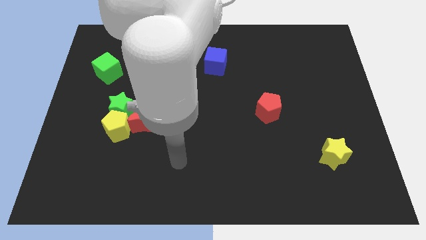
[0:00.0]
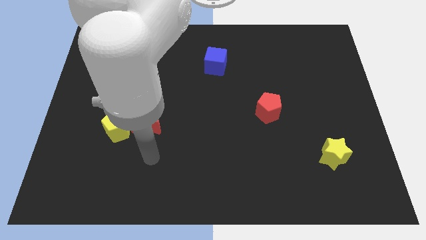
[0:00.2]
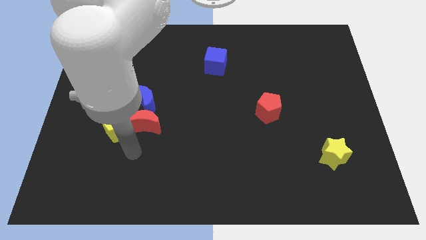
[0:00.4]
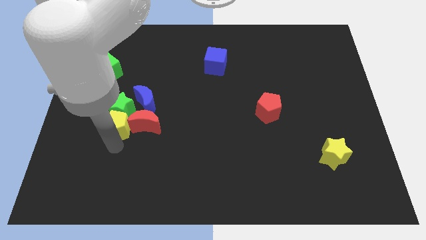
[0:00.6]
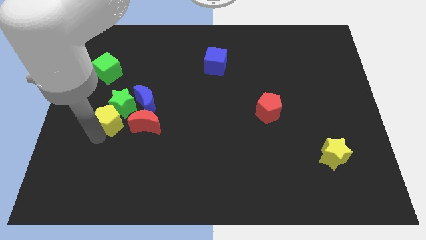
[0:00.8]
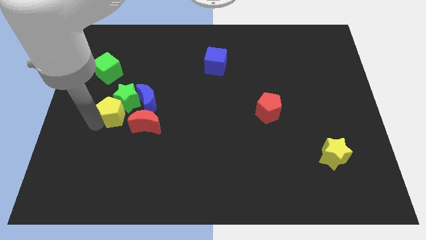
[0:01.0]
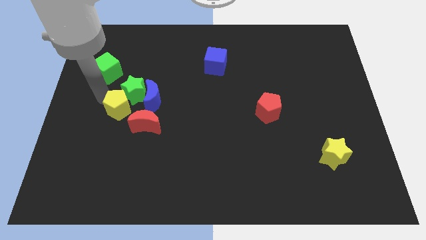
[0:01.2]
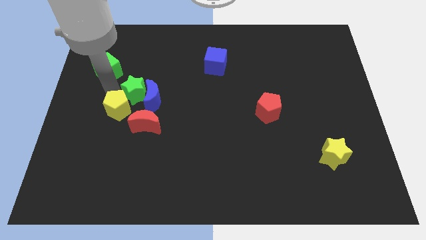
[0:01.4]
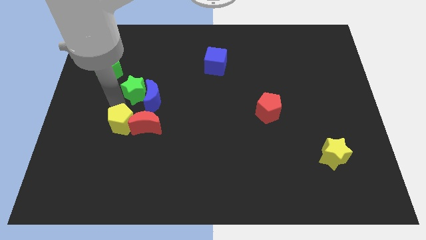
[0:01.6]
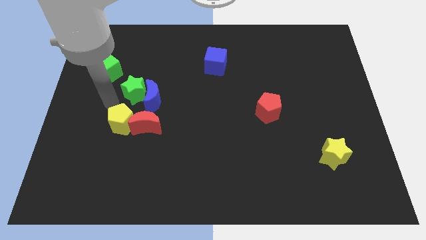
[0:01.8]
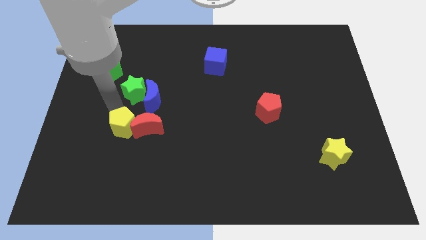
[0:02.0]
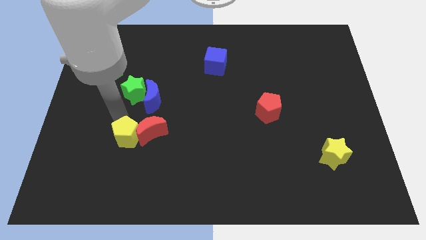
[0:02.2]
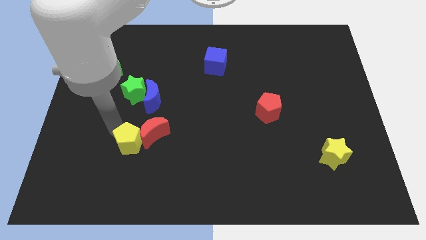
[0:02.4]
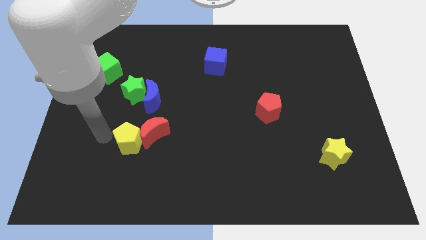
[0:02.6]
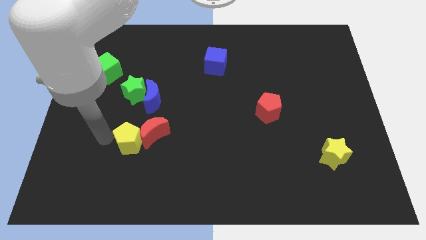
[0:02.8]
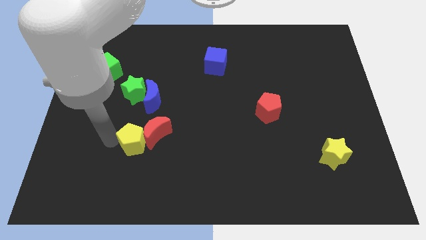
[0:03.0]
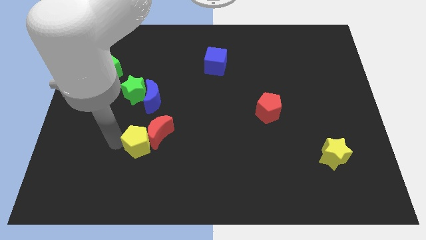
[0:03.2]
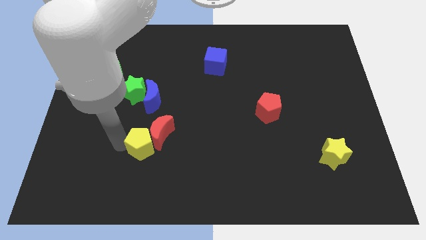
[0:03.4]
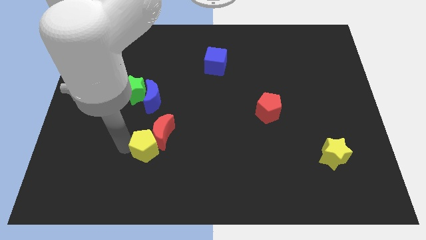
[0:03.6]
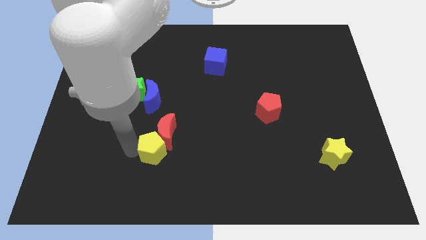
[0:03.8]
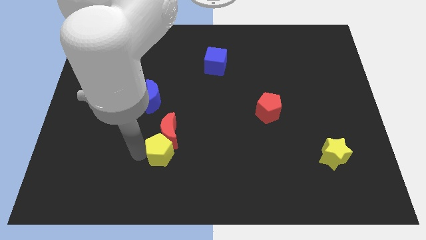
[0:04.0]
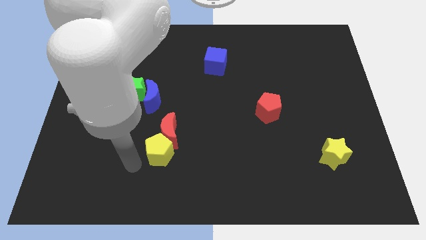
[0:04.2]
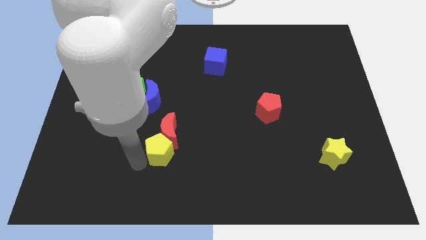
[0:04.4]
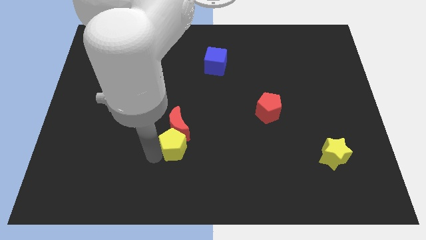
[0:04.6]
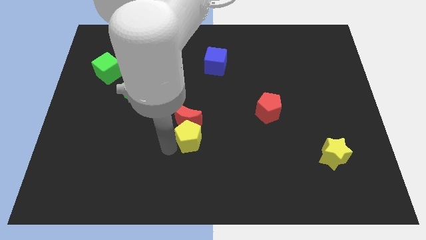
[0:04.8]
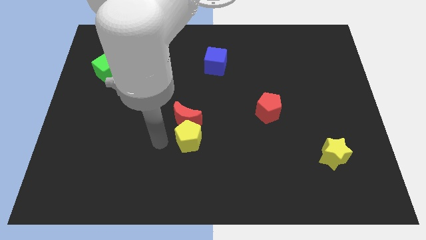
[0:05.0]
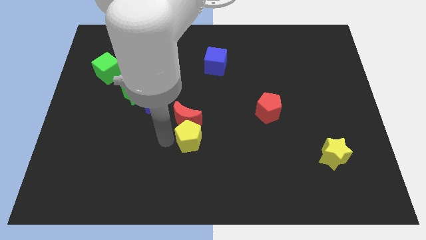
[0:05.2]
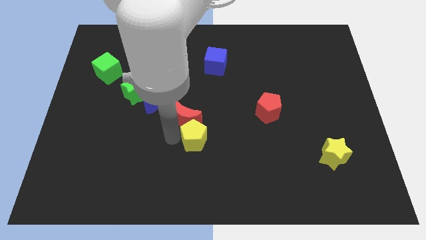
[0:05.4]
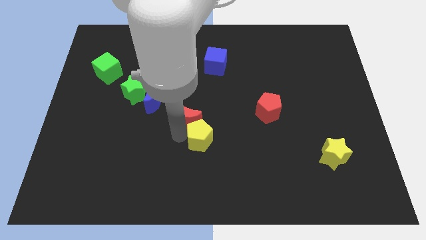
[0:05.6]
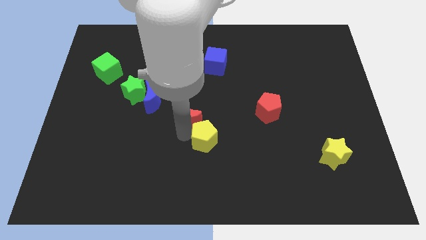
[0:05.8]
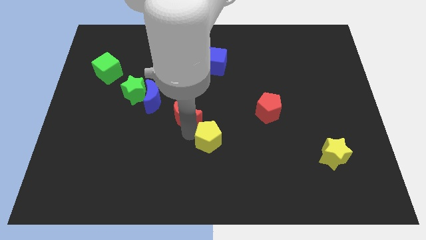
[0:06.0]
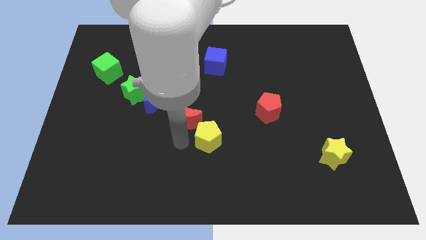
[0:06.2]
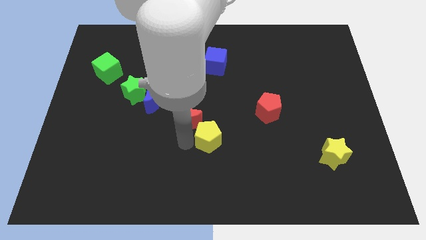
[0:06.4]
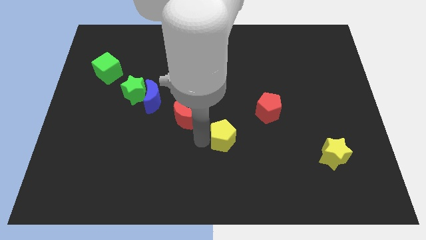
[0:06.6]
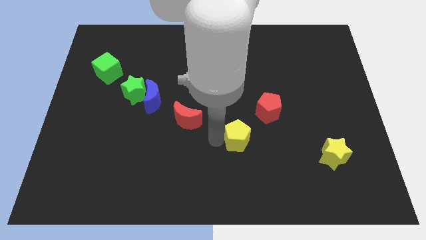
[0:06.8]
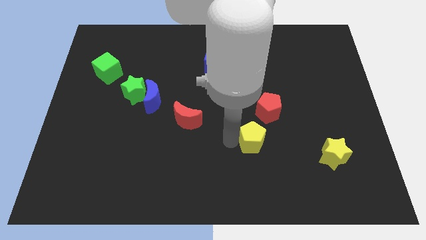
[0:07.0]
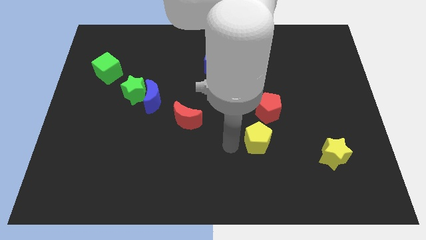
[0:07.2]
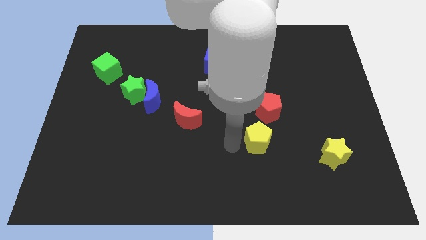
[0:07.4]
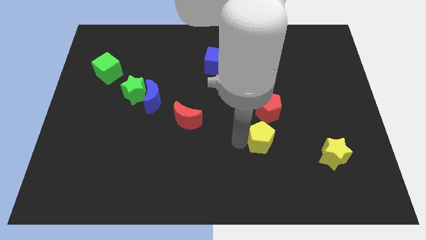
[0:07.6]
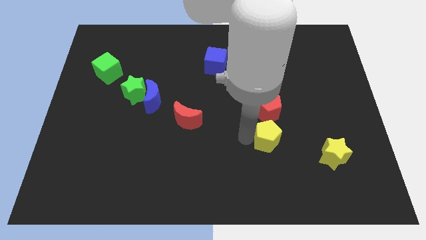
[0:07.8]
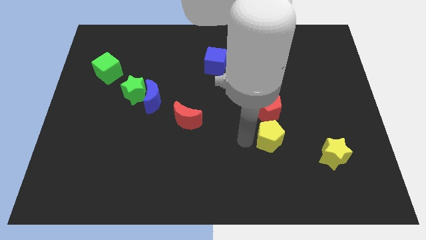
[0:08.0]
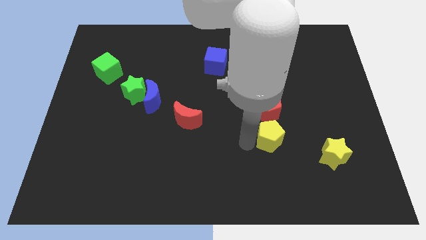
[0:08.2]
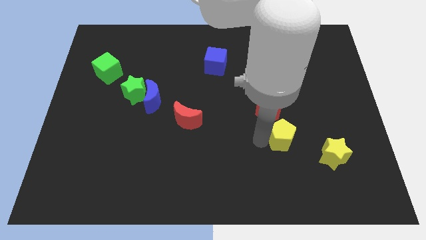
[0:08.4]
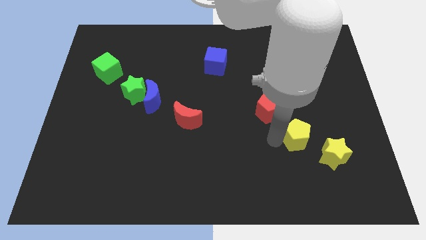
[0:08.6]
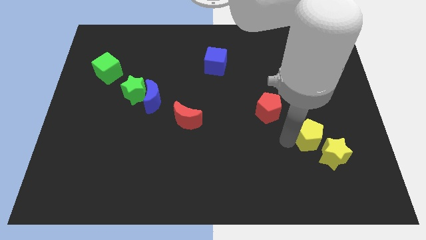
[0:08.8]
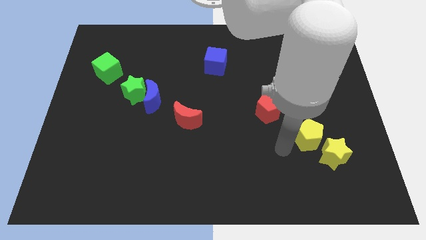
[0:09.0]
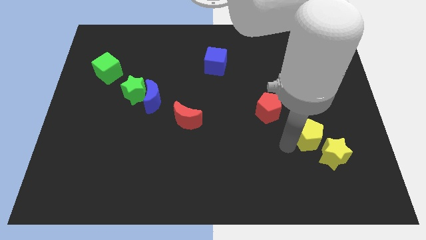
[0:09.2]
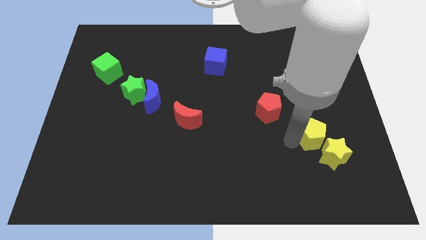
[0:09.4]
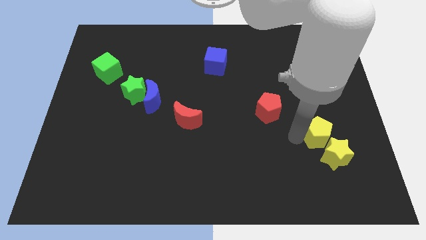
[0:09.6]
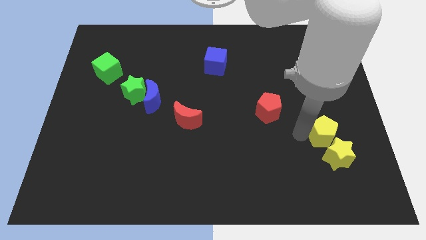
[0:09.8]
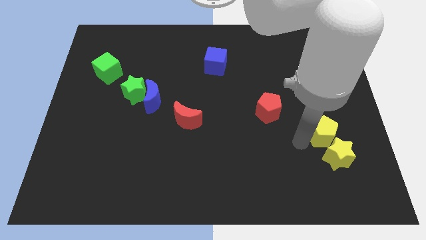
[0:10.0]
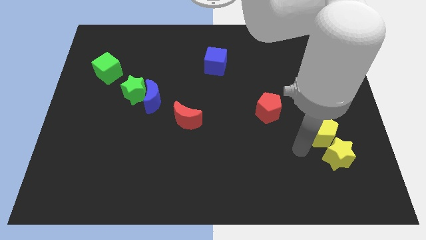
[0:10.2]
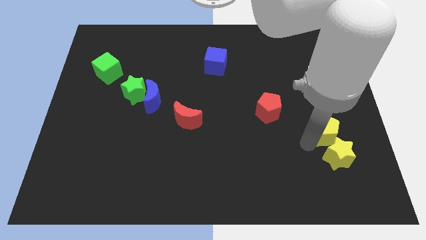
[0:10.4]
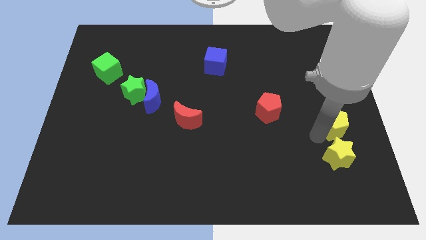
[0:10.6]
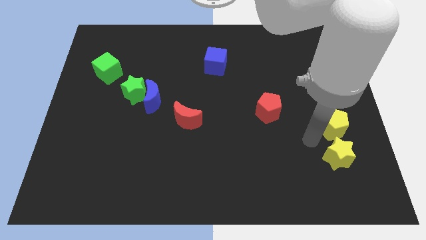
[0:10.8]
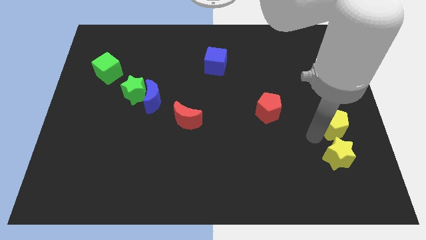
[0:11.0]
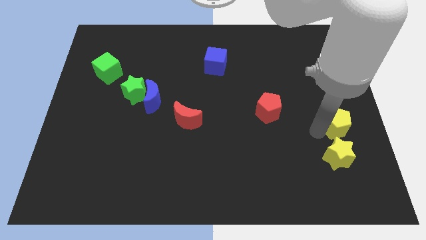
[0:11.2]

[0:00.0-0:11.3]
slide the yellow pentagon to the right side of the board
